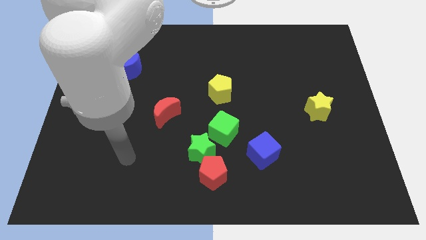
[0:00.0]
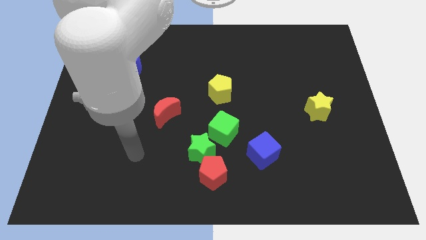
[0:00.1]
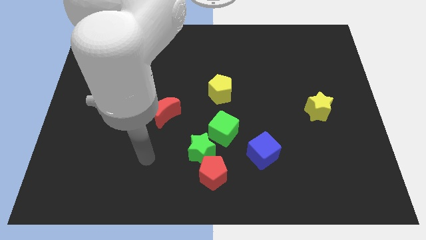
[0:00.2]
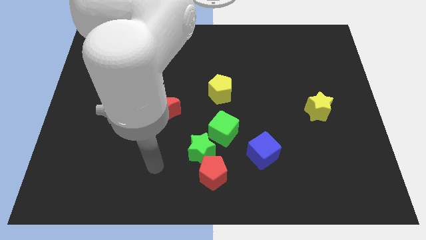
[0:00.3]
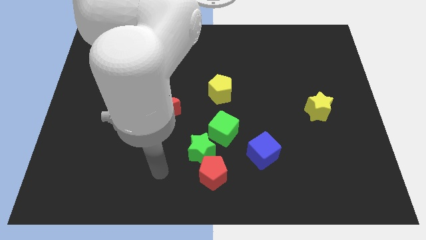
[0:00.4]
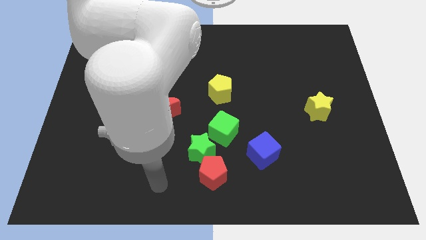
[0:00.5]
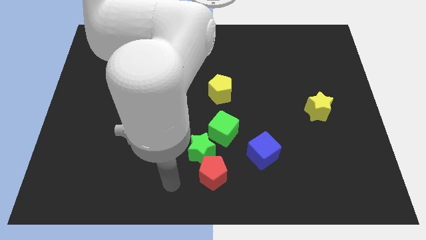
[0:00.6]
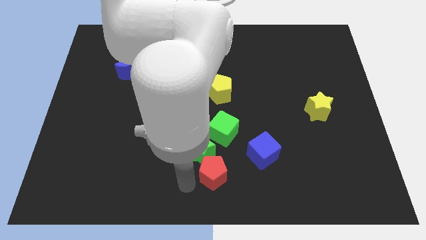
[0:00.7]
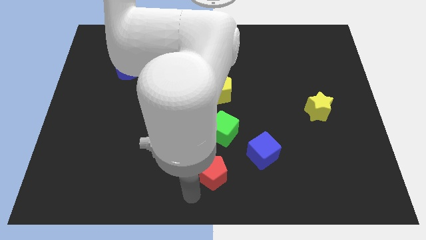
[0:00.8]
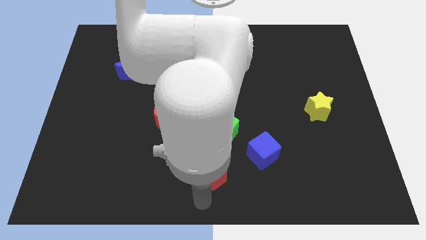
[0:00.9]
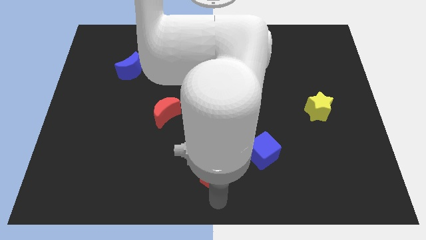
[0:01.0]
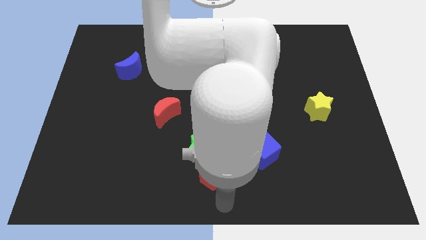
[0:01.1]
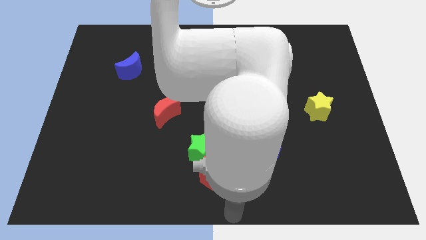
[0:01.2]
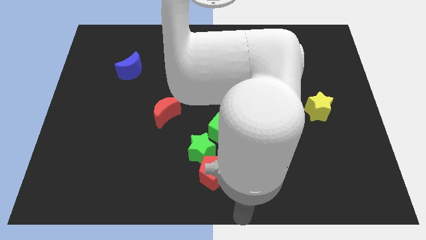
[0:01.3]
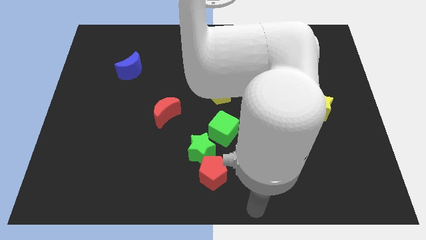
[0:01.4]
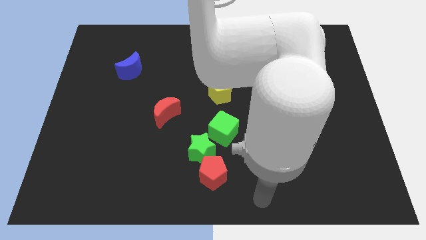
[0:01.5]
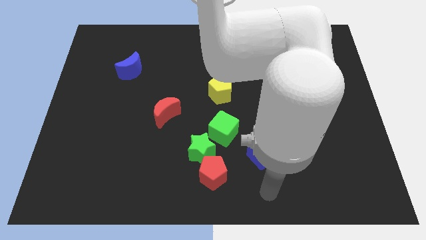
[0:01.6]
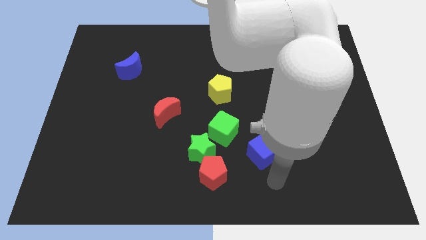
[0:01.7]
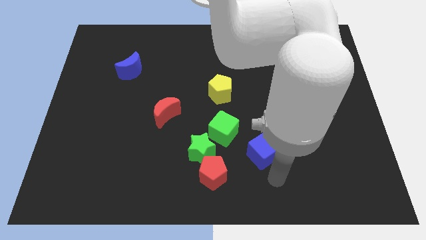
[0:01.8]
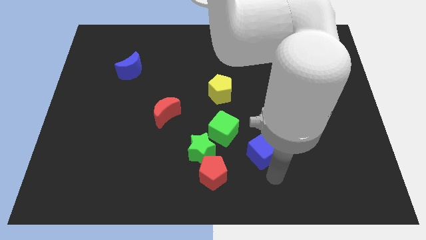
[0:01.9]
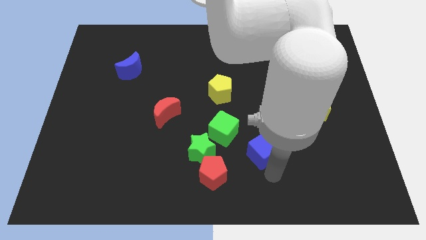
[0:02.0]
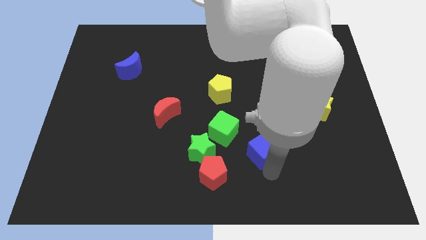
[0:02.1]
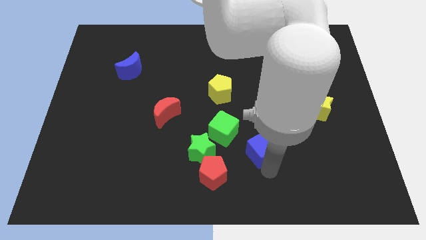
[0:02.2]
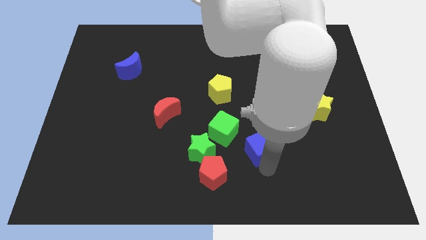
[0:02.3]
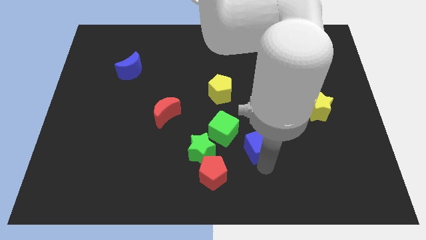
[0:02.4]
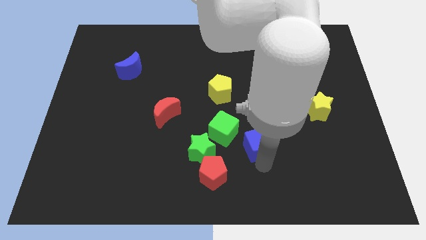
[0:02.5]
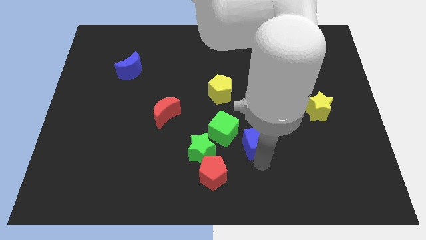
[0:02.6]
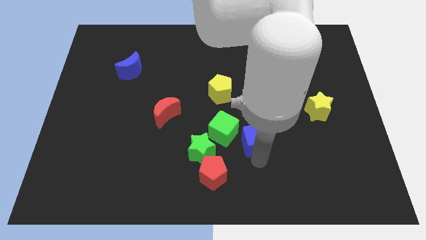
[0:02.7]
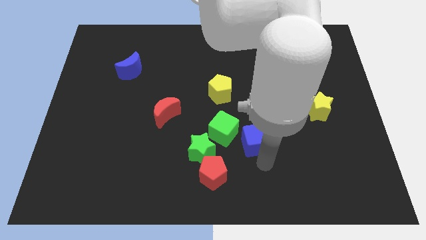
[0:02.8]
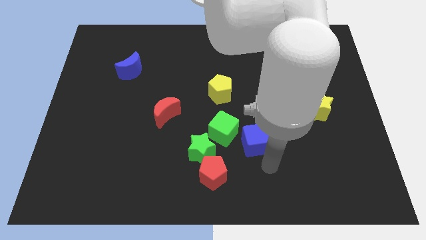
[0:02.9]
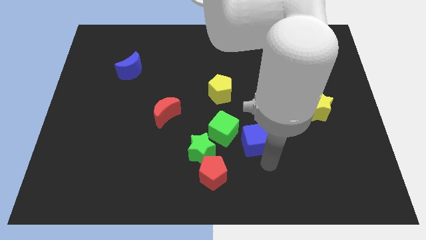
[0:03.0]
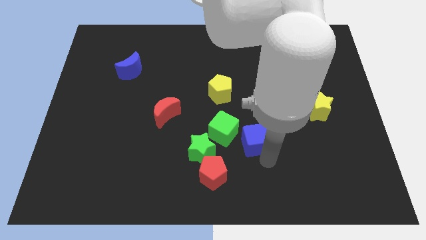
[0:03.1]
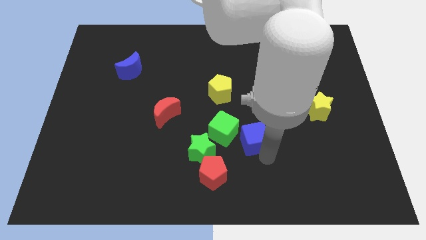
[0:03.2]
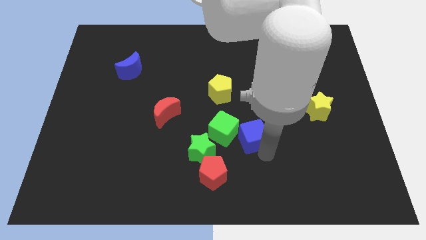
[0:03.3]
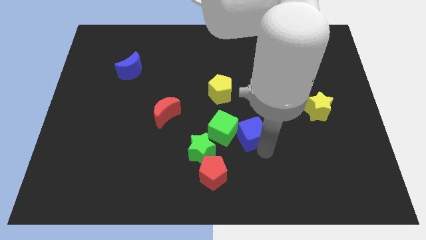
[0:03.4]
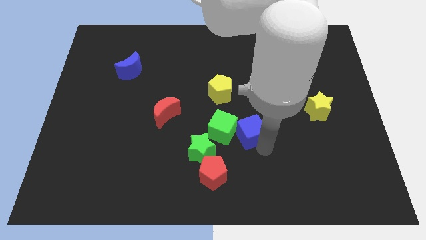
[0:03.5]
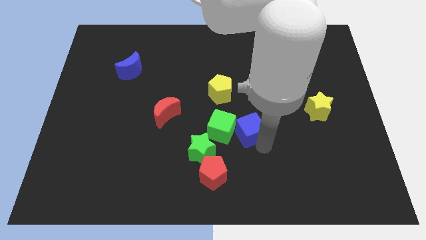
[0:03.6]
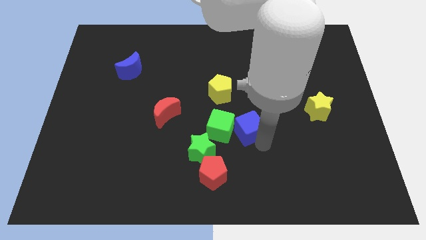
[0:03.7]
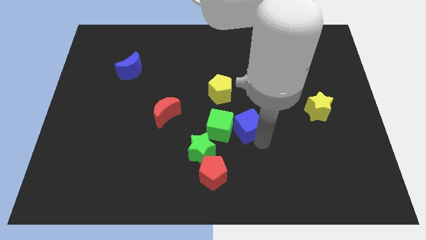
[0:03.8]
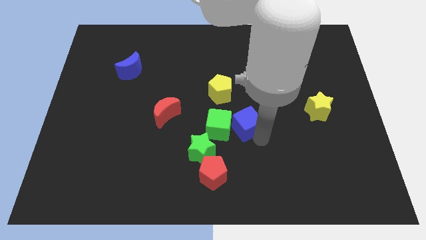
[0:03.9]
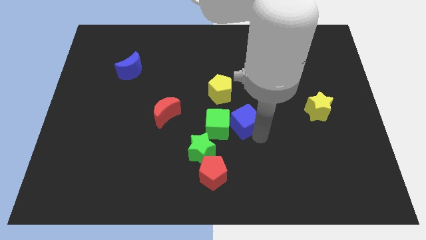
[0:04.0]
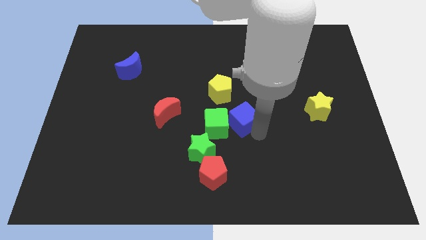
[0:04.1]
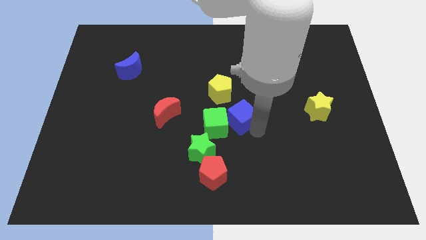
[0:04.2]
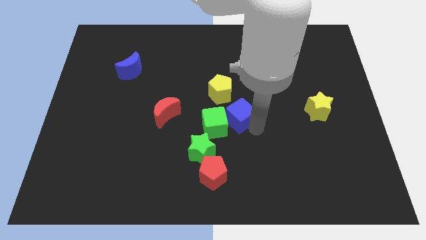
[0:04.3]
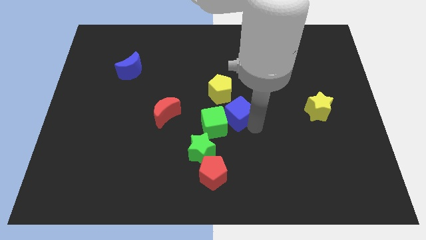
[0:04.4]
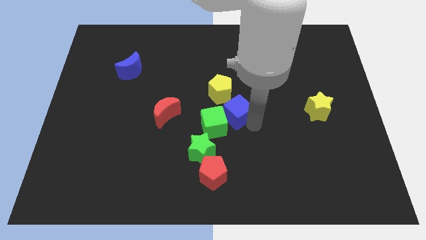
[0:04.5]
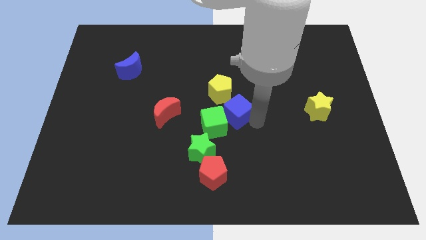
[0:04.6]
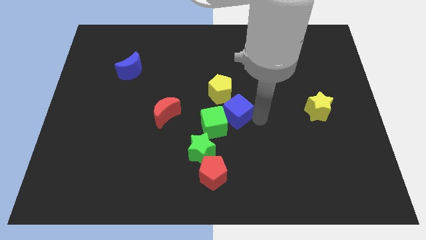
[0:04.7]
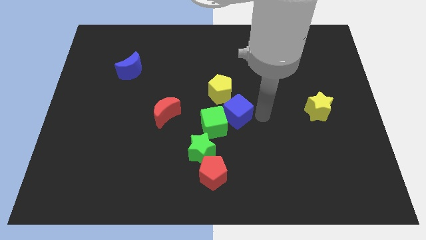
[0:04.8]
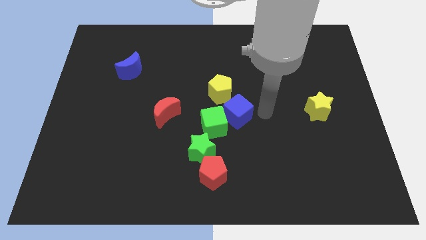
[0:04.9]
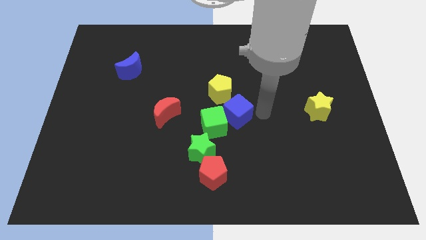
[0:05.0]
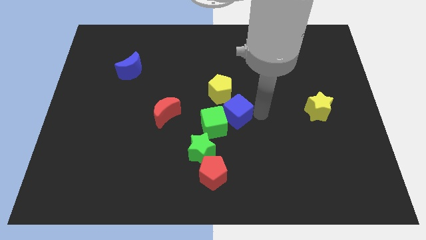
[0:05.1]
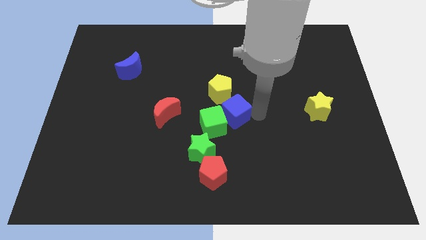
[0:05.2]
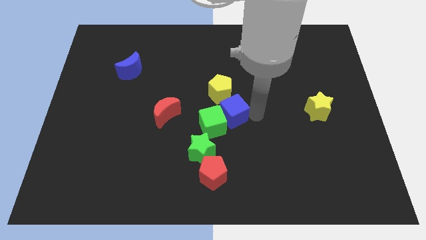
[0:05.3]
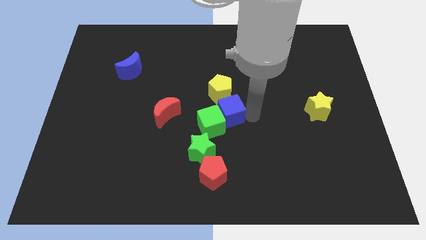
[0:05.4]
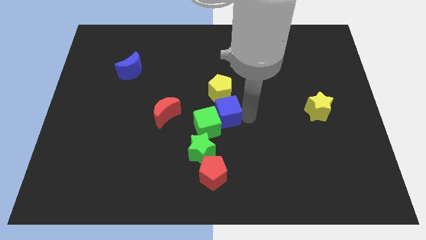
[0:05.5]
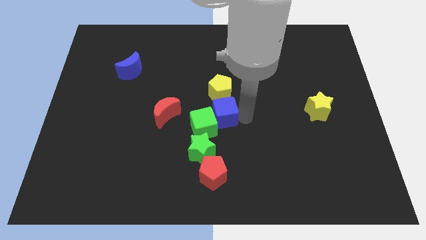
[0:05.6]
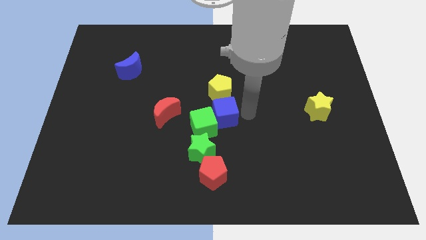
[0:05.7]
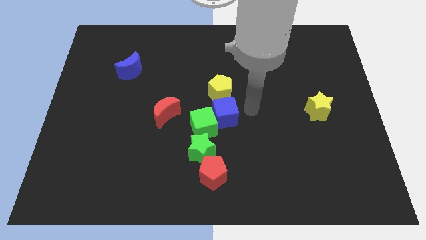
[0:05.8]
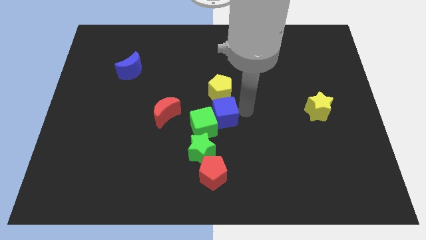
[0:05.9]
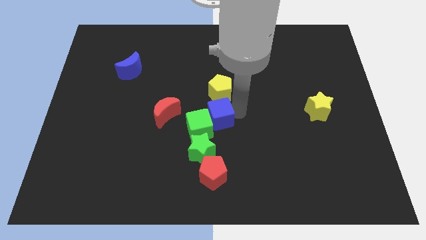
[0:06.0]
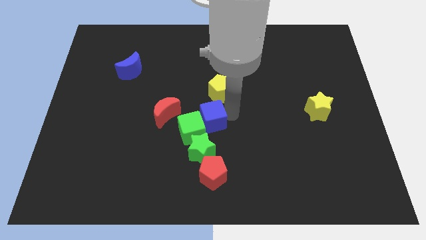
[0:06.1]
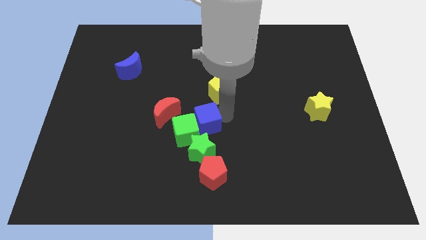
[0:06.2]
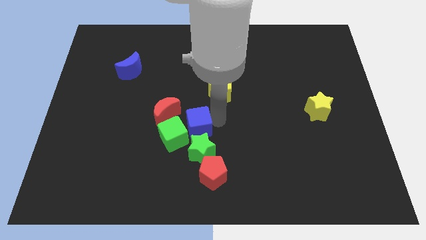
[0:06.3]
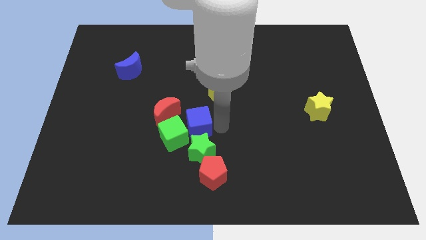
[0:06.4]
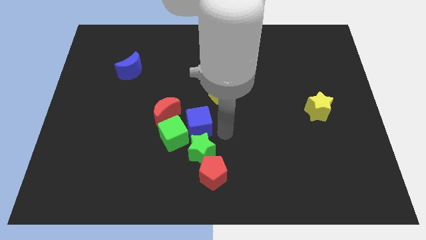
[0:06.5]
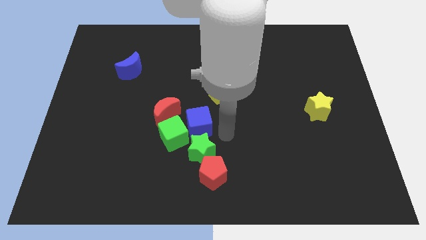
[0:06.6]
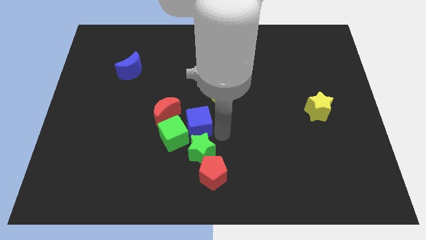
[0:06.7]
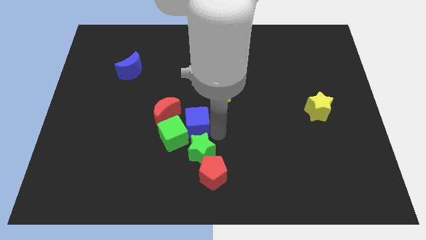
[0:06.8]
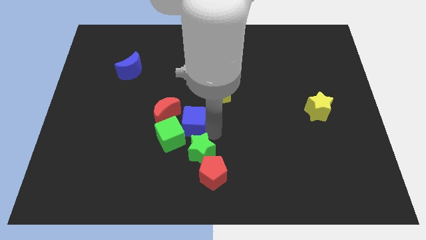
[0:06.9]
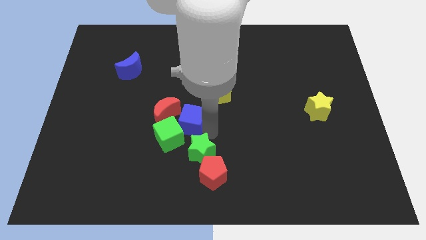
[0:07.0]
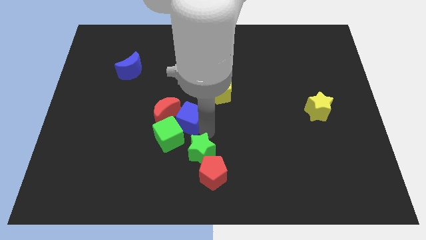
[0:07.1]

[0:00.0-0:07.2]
move the blue cube to the red moon
